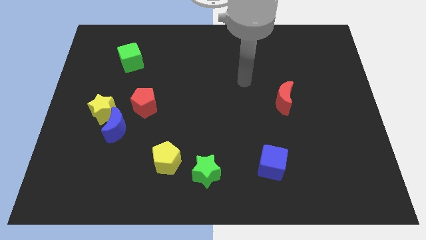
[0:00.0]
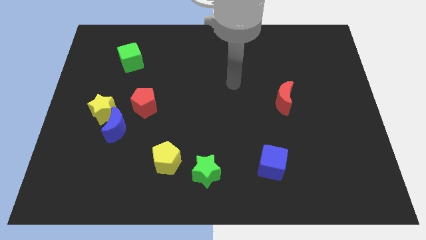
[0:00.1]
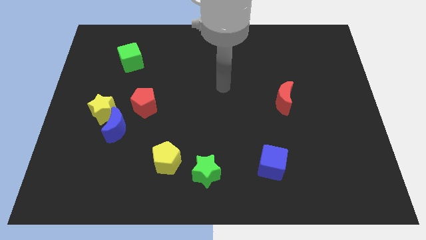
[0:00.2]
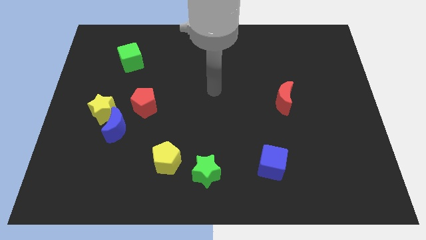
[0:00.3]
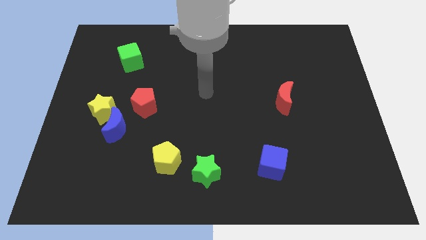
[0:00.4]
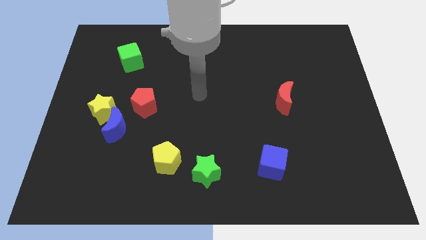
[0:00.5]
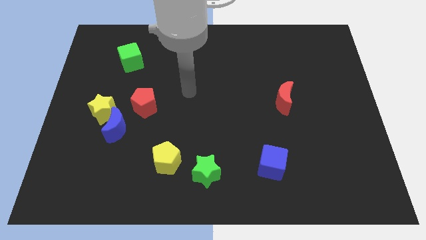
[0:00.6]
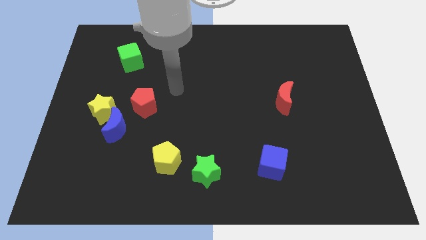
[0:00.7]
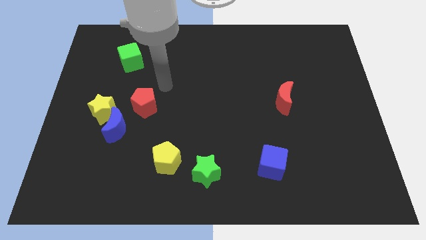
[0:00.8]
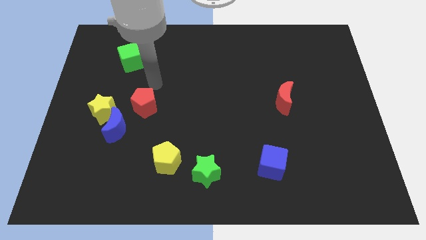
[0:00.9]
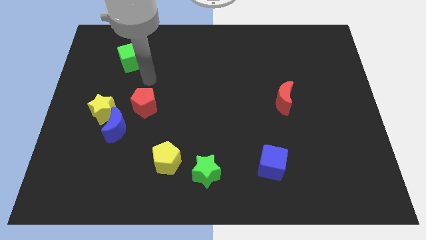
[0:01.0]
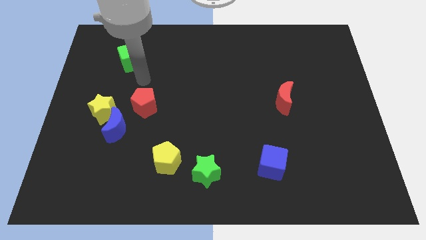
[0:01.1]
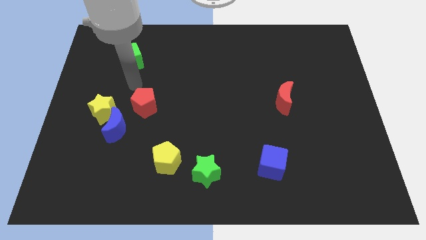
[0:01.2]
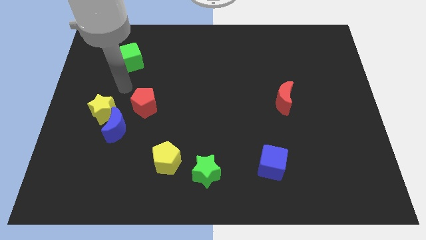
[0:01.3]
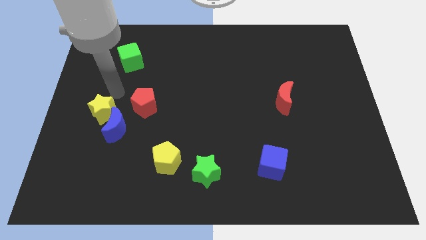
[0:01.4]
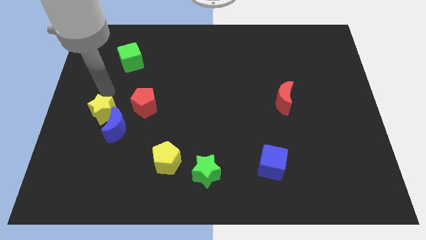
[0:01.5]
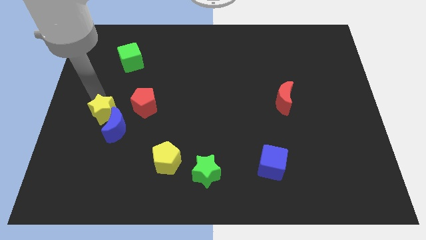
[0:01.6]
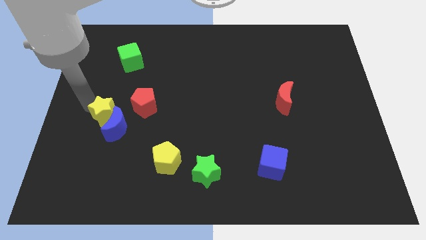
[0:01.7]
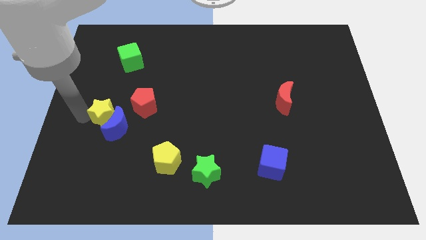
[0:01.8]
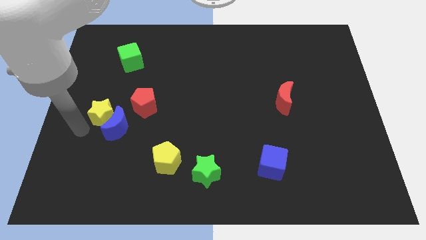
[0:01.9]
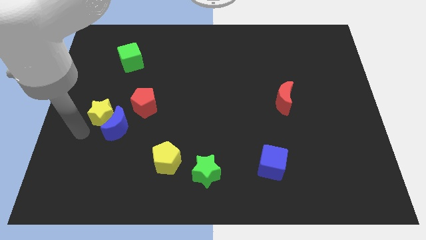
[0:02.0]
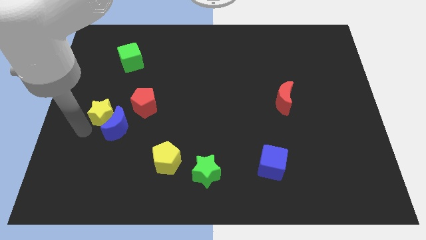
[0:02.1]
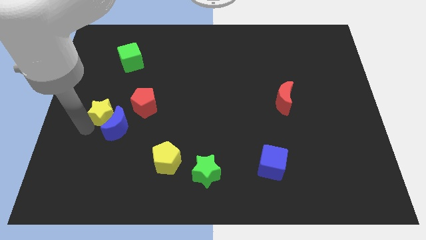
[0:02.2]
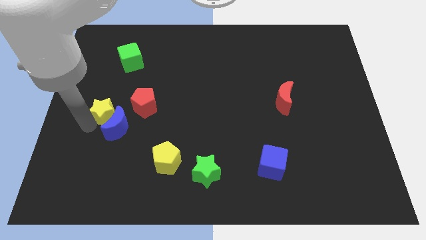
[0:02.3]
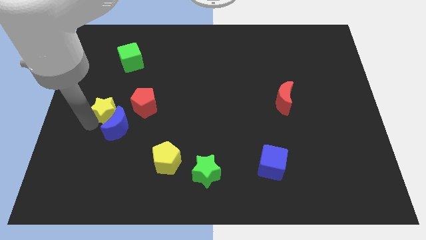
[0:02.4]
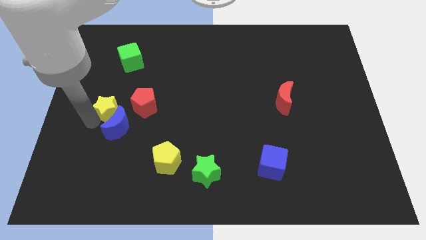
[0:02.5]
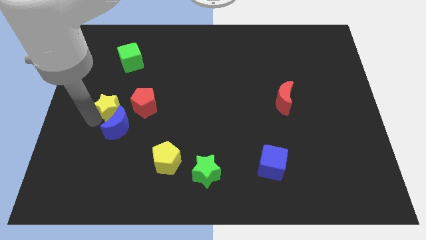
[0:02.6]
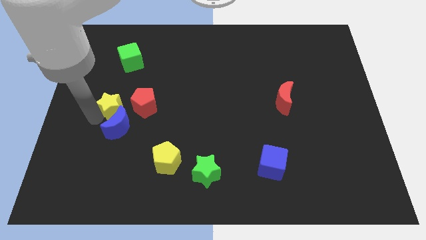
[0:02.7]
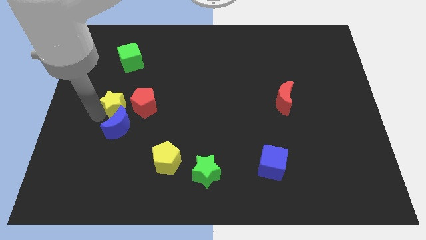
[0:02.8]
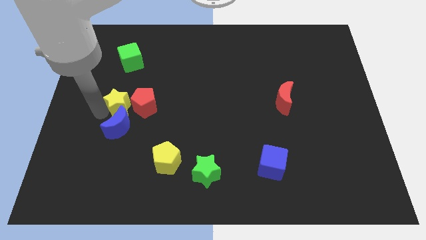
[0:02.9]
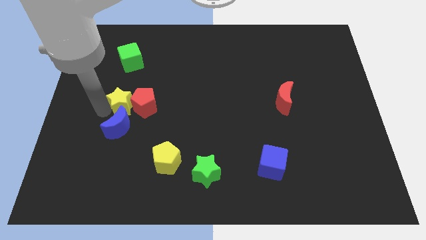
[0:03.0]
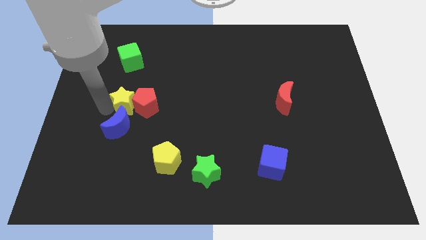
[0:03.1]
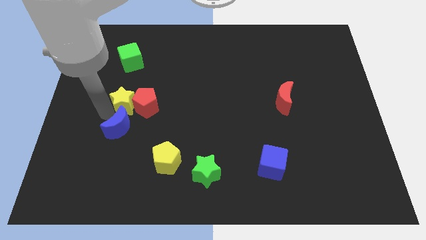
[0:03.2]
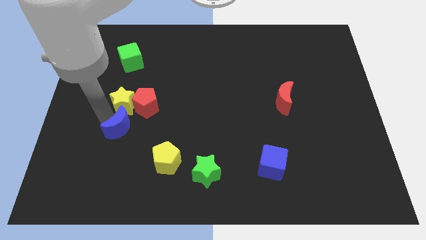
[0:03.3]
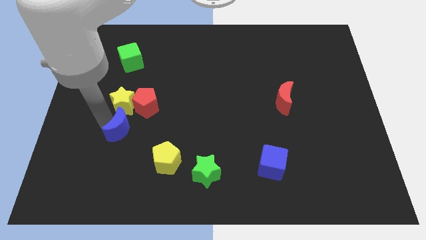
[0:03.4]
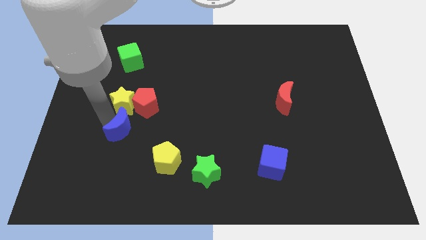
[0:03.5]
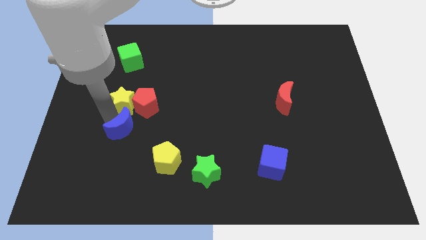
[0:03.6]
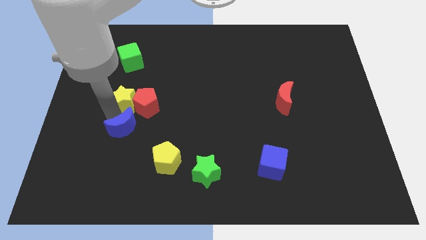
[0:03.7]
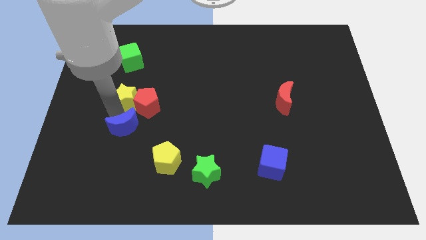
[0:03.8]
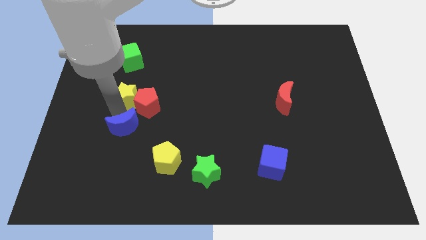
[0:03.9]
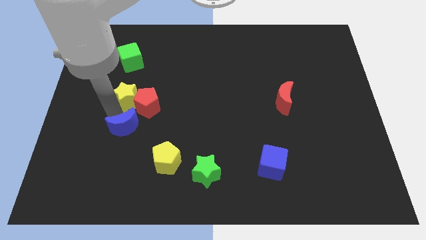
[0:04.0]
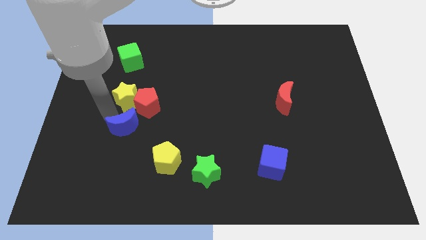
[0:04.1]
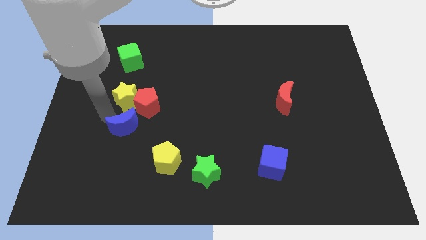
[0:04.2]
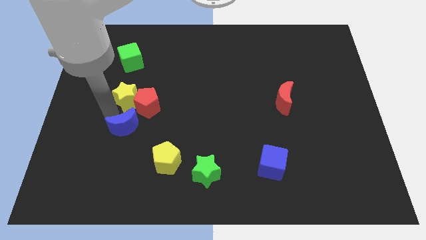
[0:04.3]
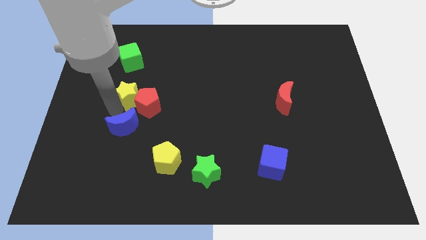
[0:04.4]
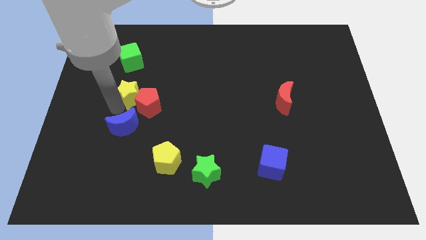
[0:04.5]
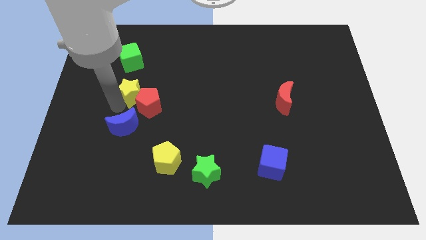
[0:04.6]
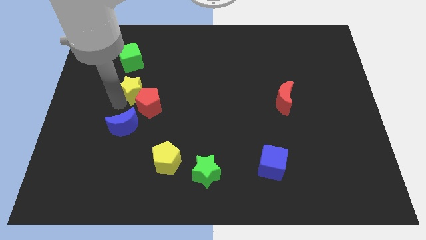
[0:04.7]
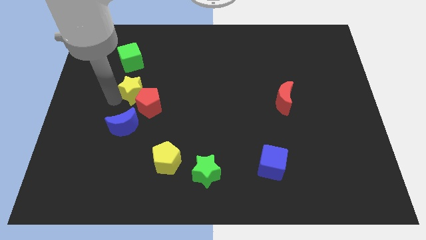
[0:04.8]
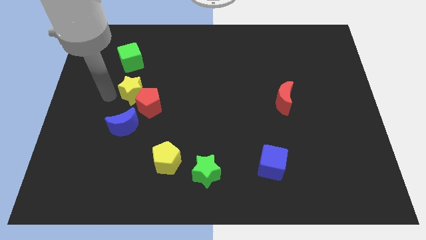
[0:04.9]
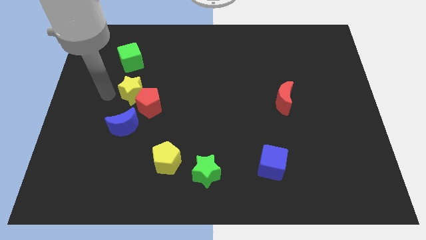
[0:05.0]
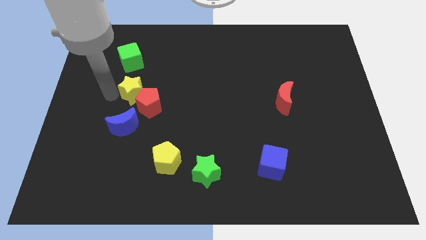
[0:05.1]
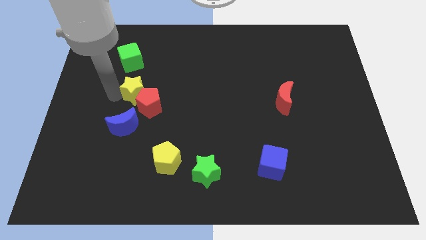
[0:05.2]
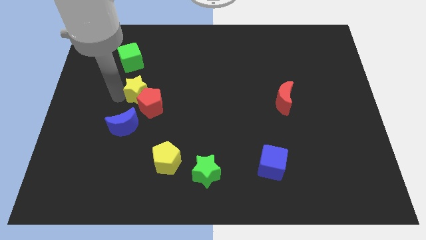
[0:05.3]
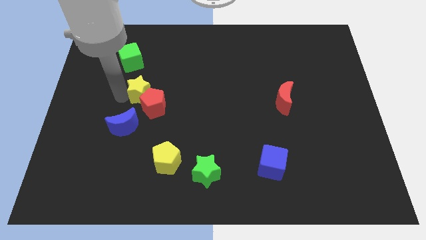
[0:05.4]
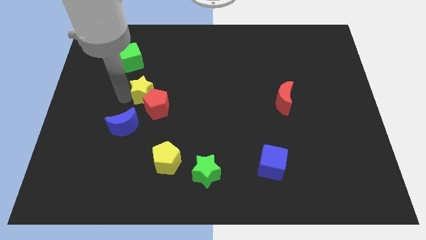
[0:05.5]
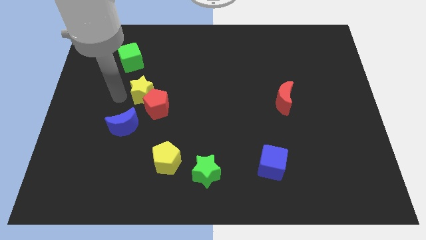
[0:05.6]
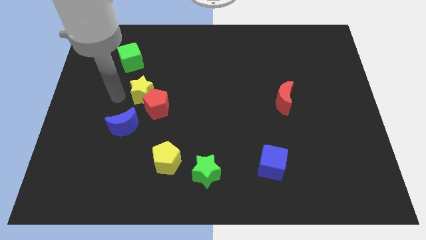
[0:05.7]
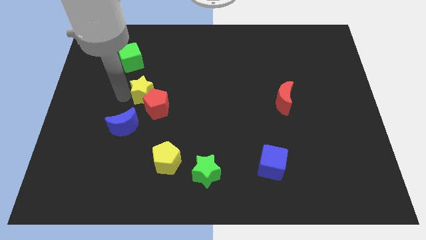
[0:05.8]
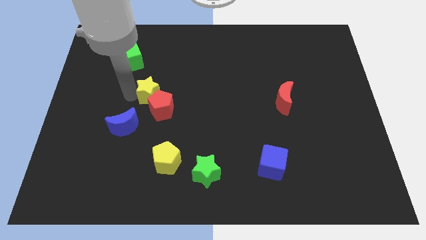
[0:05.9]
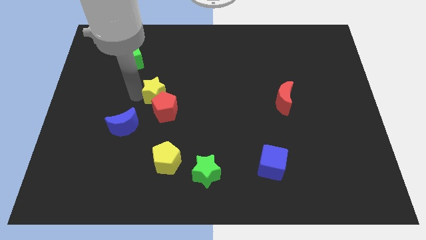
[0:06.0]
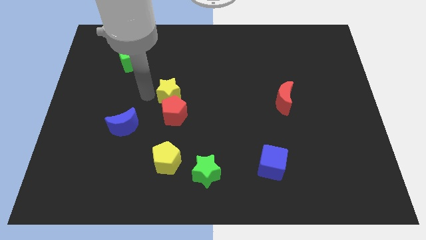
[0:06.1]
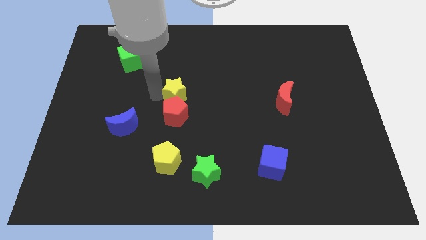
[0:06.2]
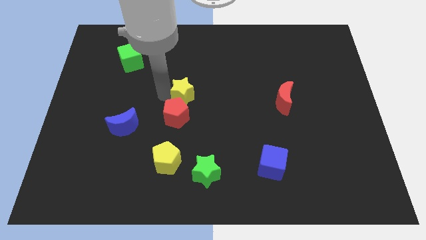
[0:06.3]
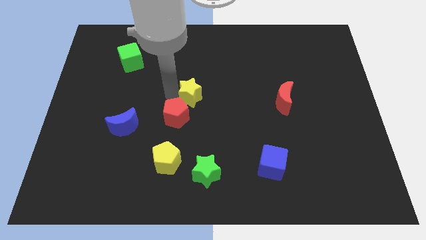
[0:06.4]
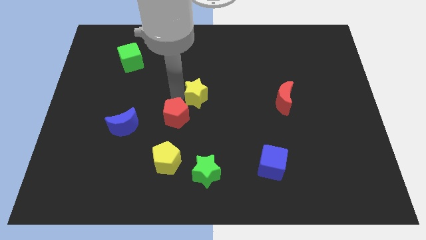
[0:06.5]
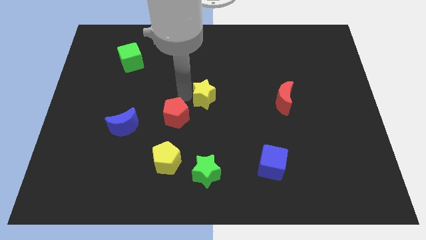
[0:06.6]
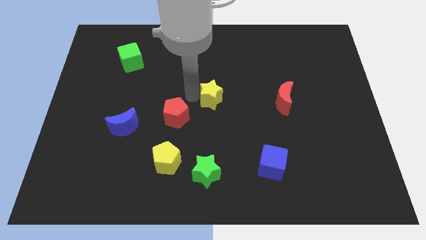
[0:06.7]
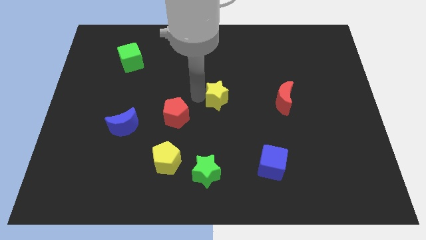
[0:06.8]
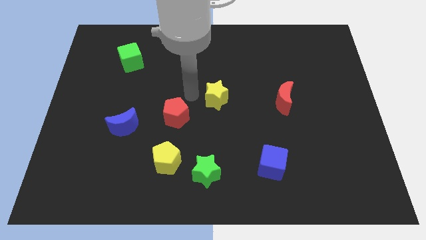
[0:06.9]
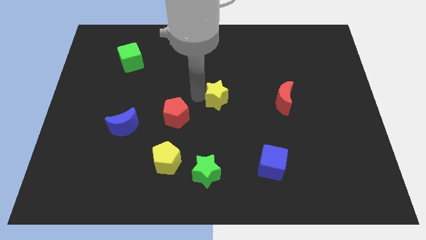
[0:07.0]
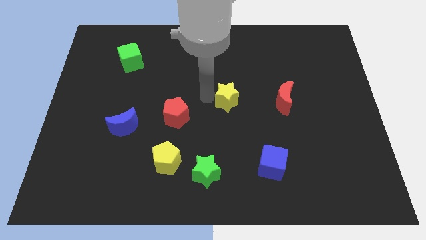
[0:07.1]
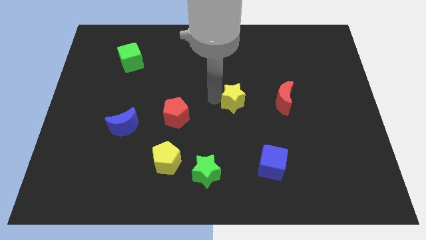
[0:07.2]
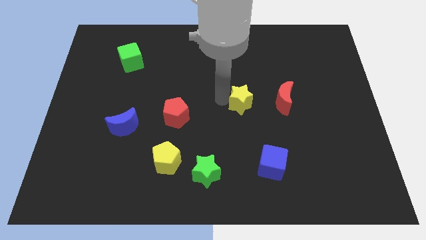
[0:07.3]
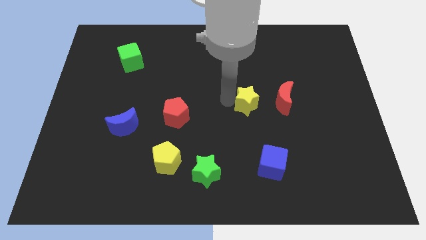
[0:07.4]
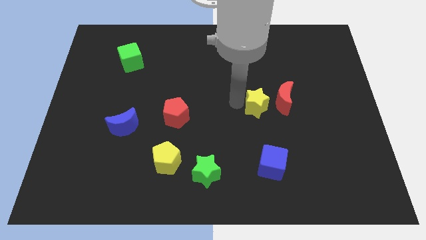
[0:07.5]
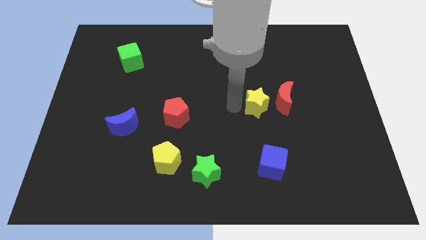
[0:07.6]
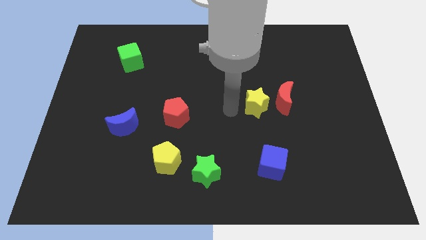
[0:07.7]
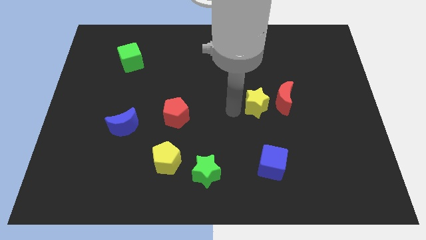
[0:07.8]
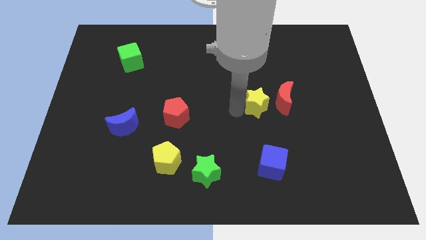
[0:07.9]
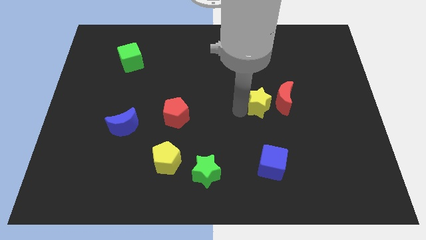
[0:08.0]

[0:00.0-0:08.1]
move the yellow star to the red moon
